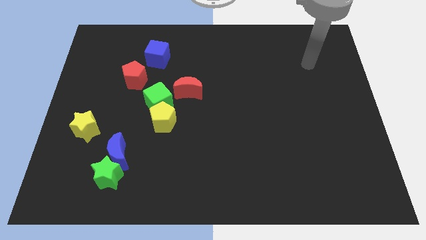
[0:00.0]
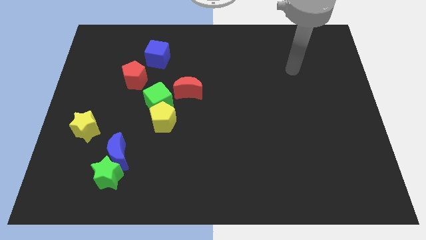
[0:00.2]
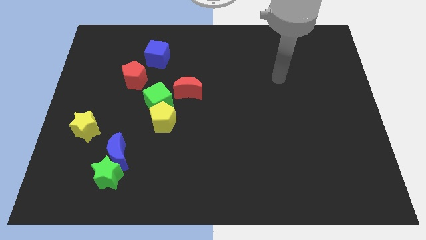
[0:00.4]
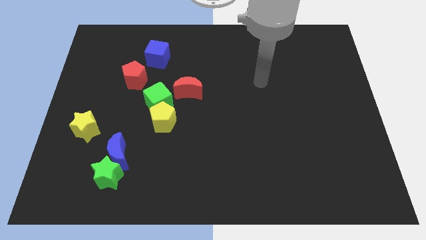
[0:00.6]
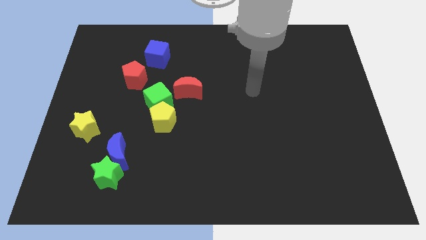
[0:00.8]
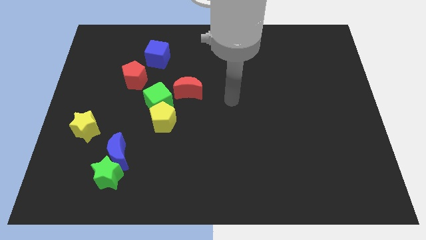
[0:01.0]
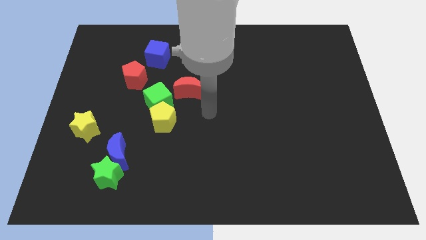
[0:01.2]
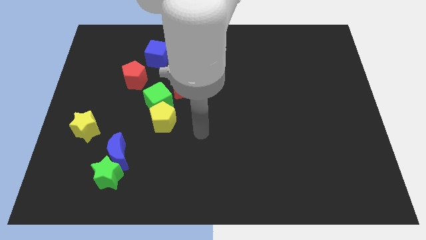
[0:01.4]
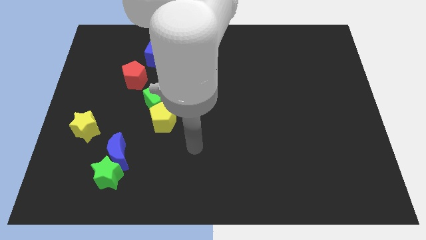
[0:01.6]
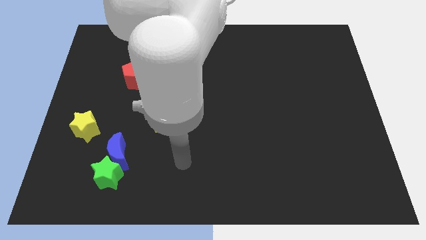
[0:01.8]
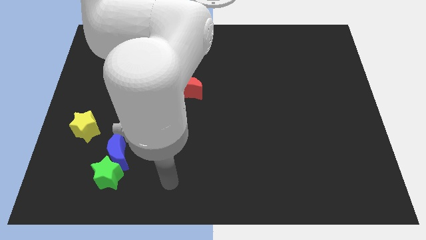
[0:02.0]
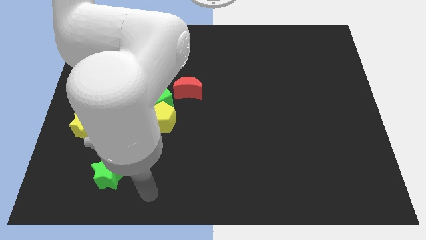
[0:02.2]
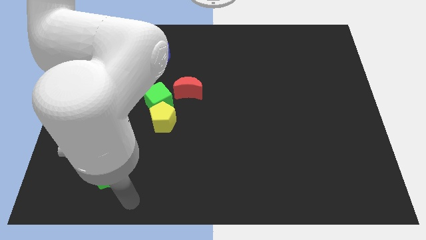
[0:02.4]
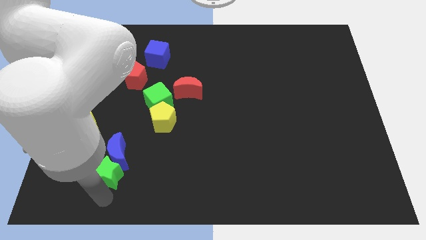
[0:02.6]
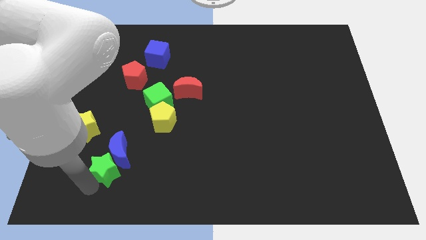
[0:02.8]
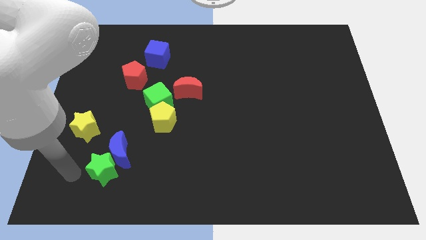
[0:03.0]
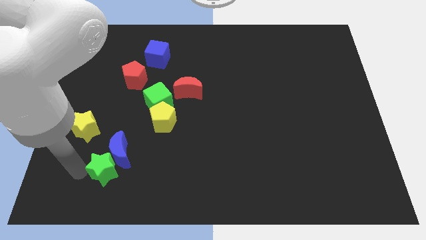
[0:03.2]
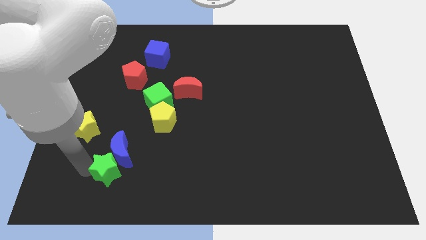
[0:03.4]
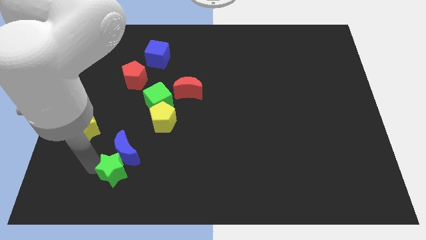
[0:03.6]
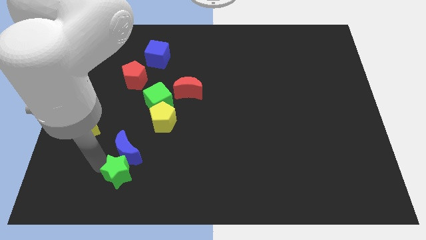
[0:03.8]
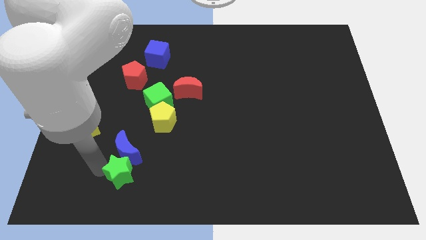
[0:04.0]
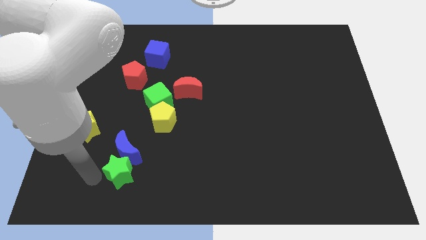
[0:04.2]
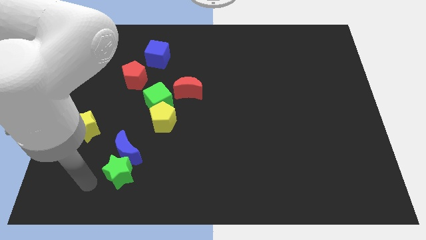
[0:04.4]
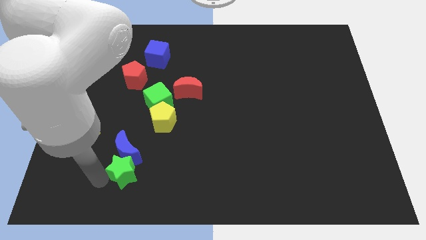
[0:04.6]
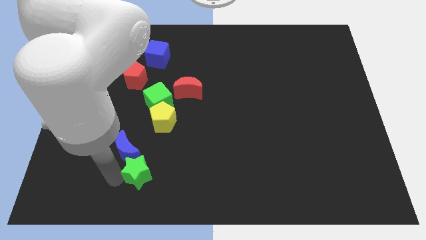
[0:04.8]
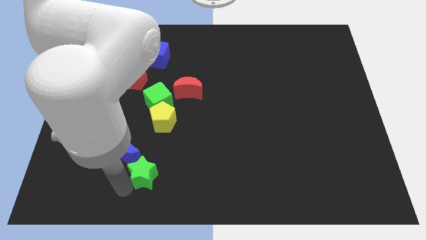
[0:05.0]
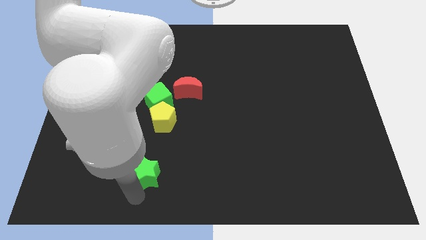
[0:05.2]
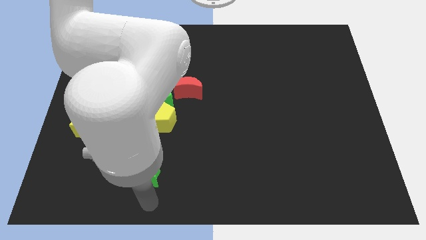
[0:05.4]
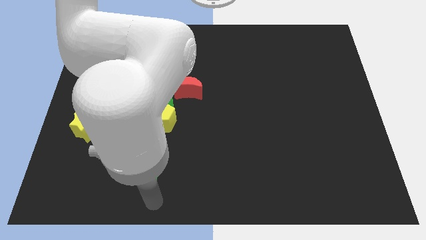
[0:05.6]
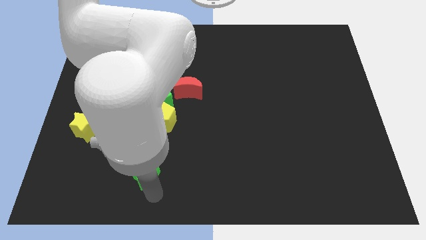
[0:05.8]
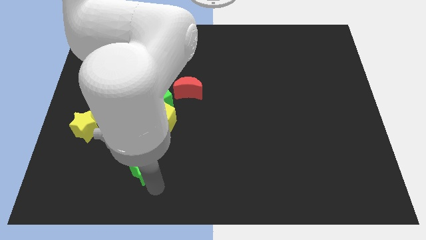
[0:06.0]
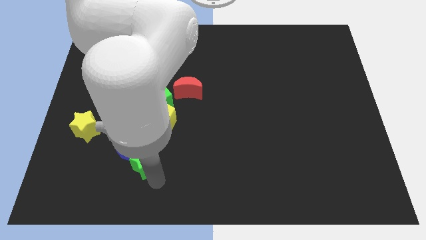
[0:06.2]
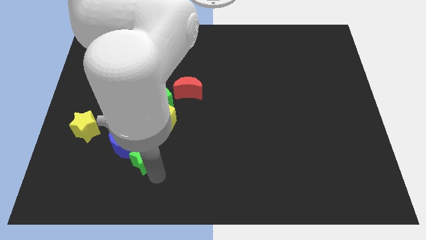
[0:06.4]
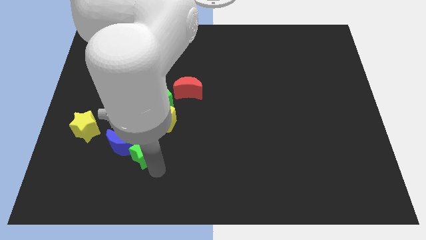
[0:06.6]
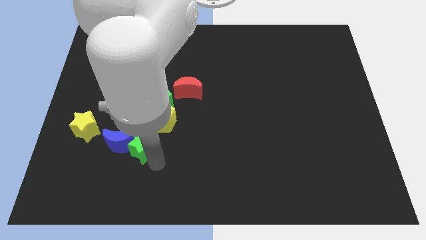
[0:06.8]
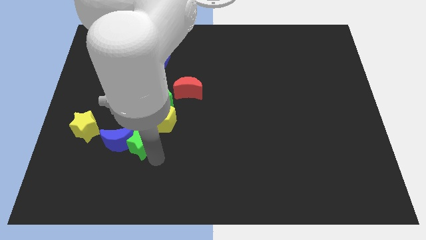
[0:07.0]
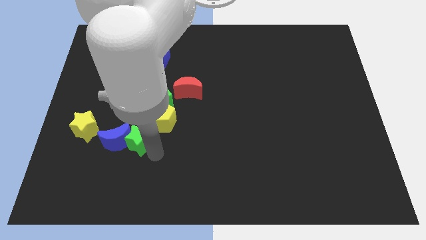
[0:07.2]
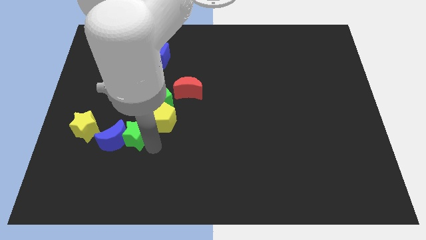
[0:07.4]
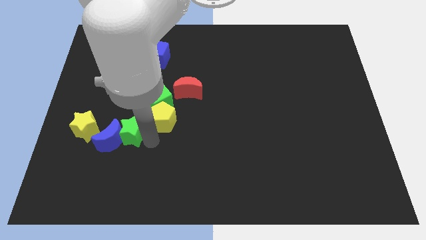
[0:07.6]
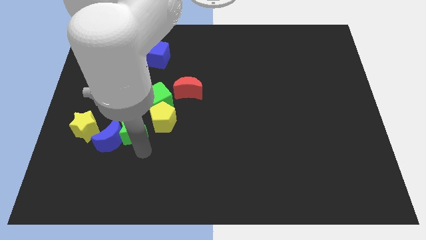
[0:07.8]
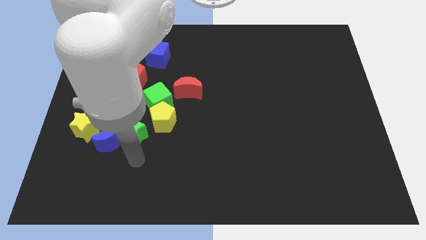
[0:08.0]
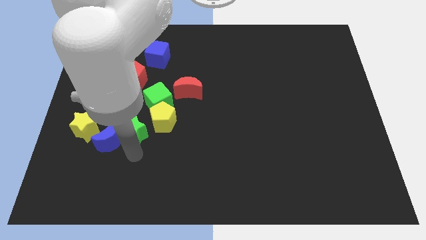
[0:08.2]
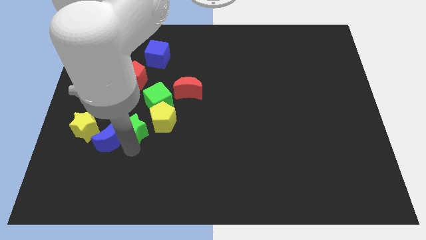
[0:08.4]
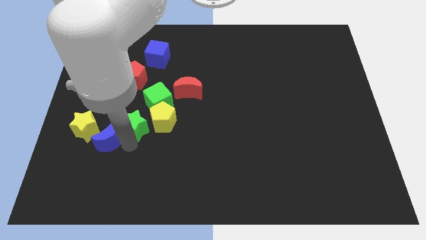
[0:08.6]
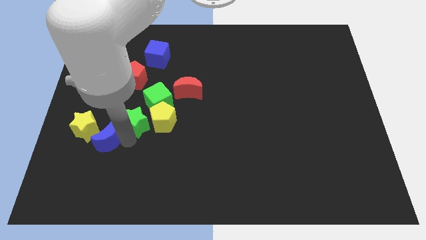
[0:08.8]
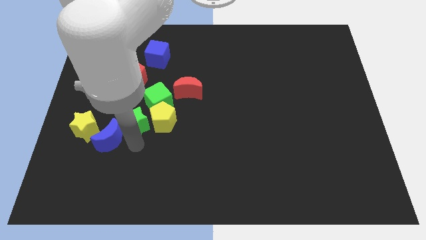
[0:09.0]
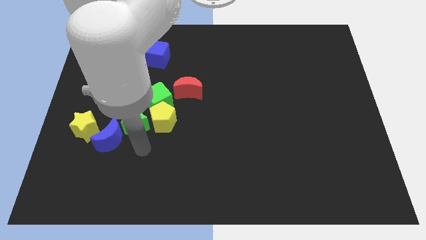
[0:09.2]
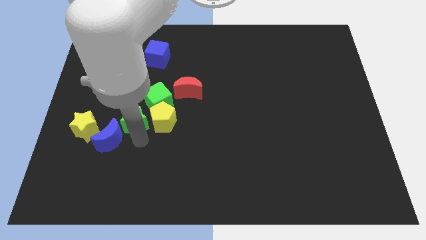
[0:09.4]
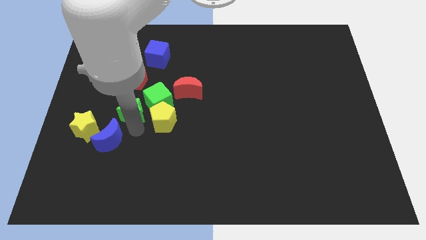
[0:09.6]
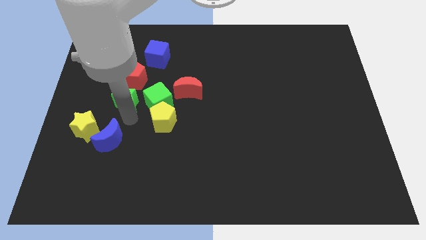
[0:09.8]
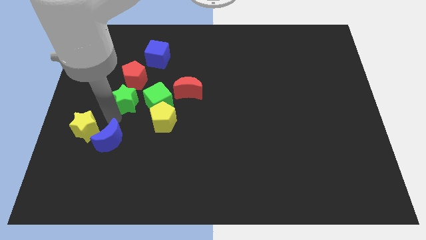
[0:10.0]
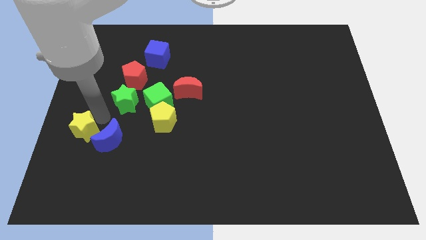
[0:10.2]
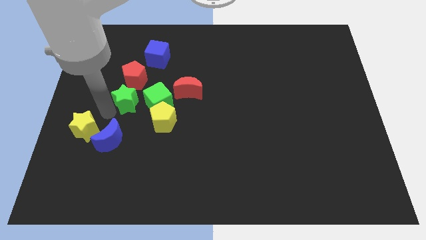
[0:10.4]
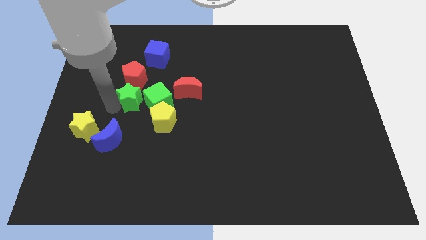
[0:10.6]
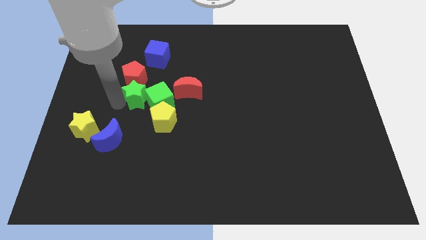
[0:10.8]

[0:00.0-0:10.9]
put the green star below the blue cube

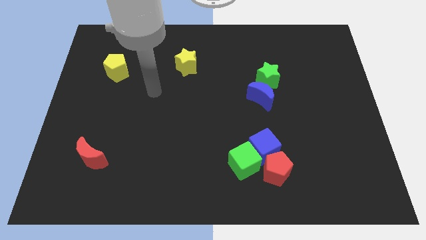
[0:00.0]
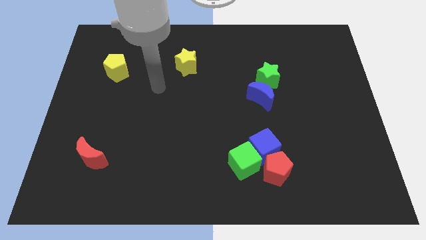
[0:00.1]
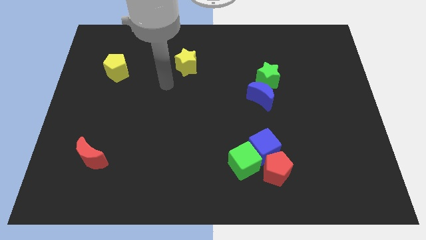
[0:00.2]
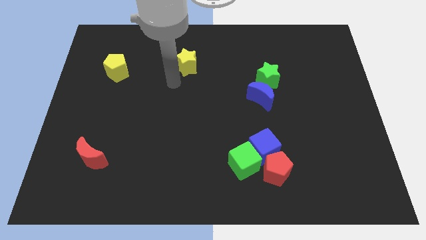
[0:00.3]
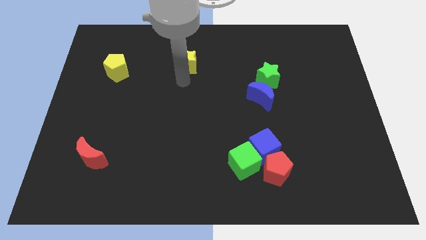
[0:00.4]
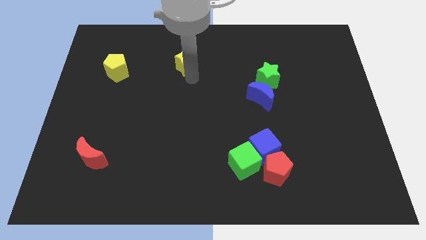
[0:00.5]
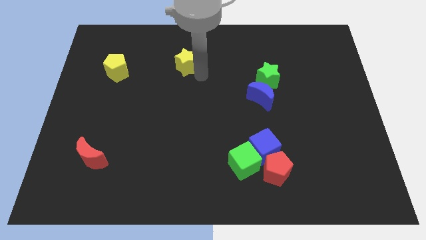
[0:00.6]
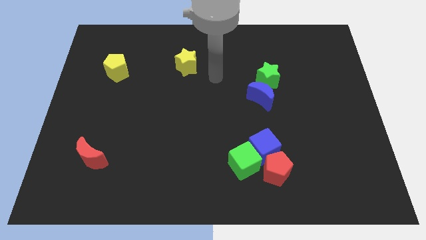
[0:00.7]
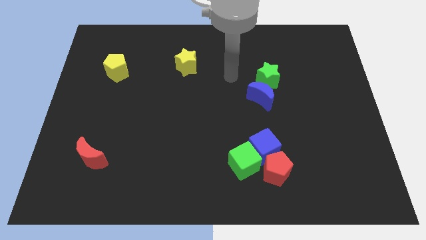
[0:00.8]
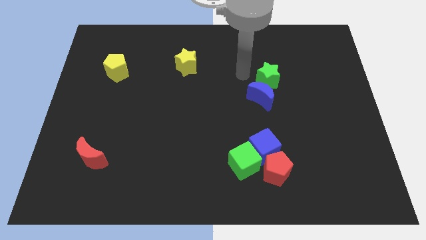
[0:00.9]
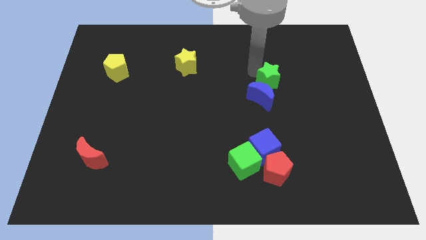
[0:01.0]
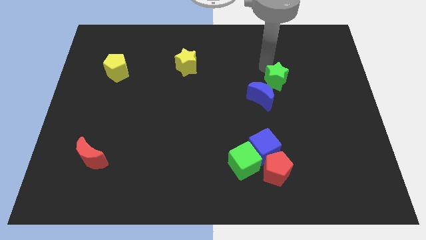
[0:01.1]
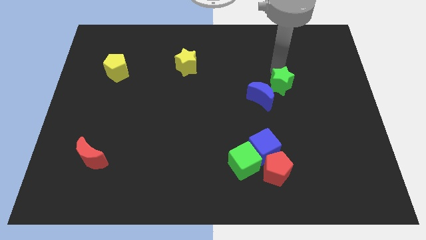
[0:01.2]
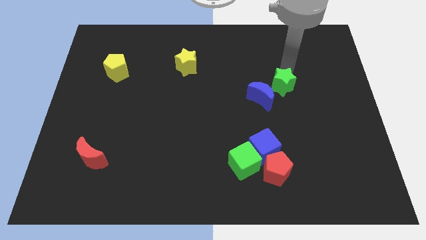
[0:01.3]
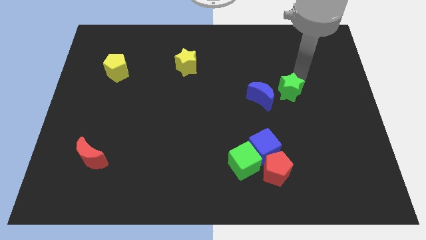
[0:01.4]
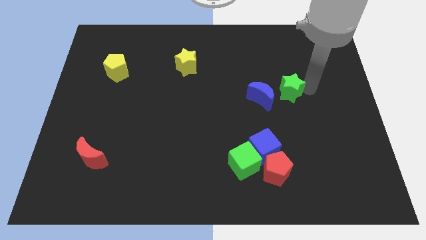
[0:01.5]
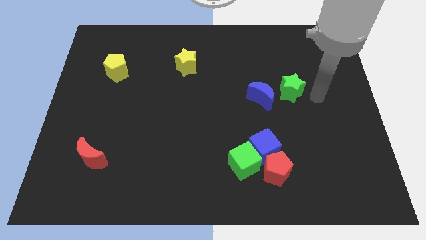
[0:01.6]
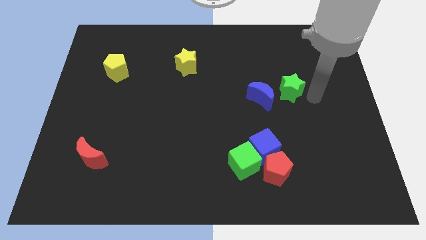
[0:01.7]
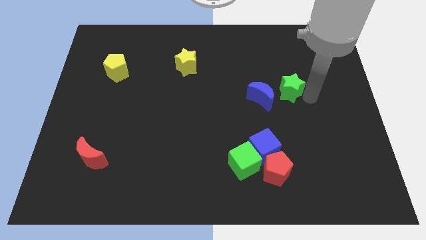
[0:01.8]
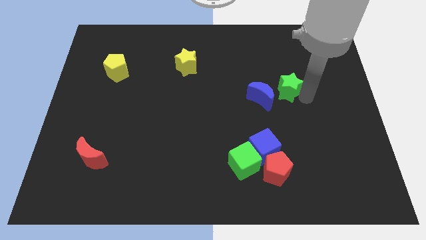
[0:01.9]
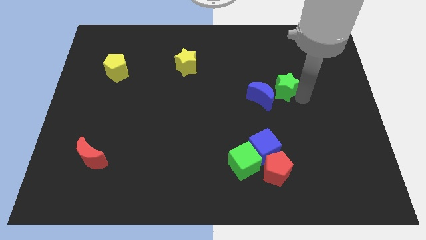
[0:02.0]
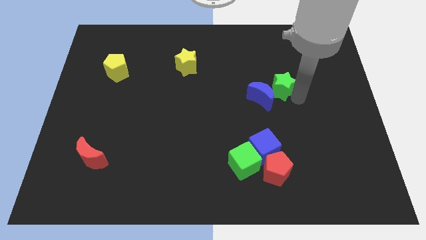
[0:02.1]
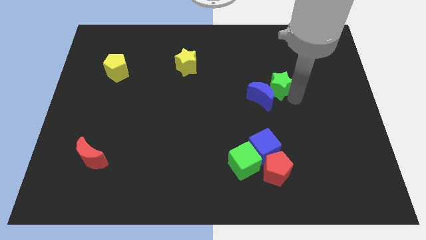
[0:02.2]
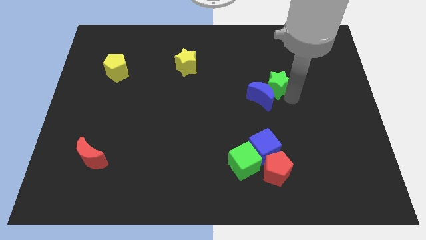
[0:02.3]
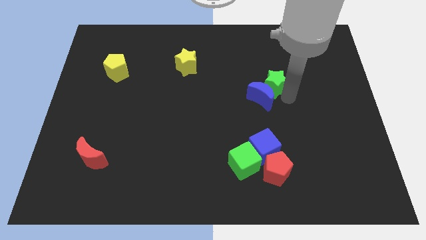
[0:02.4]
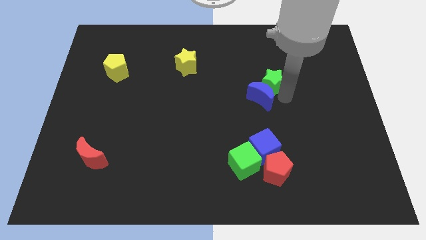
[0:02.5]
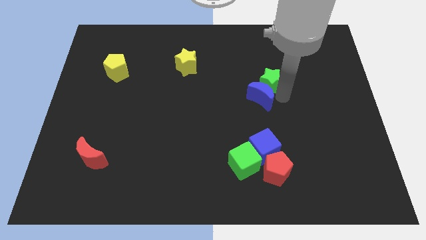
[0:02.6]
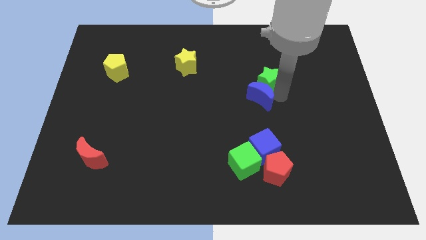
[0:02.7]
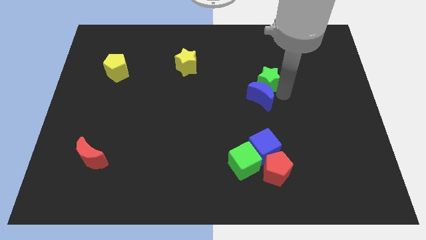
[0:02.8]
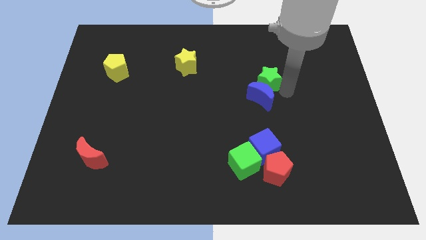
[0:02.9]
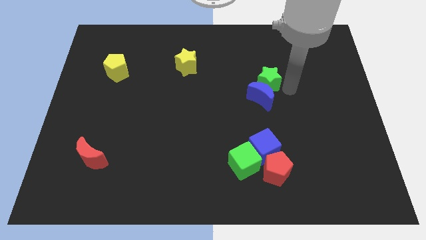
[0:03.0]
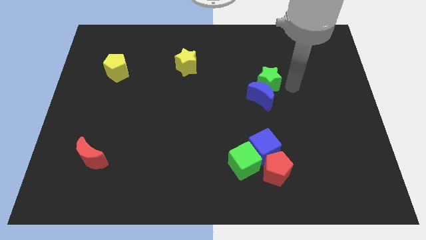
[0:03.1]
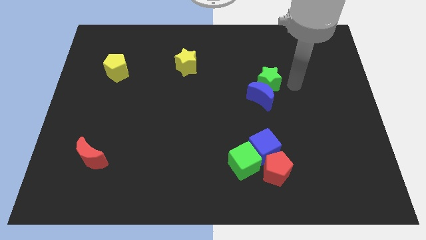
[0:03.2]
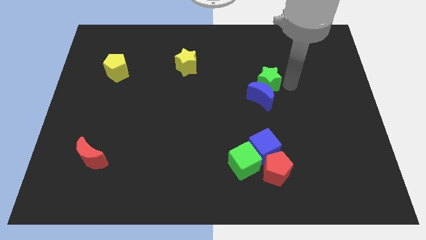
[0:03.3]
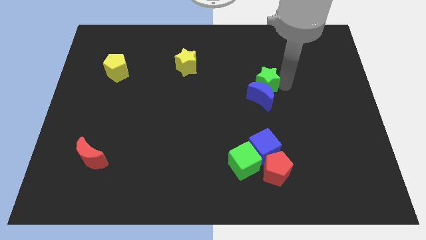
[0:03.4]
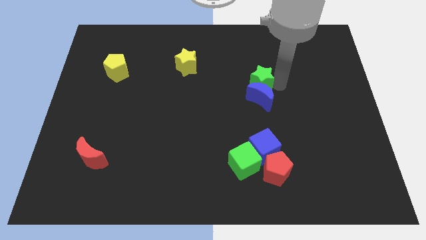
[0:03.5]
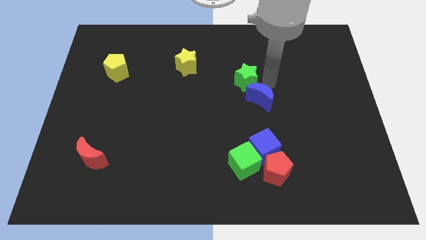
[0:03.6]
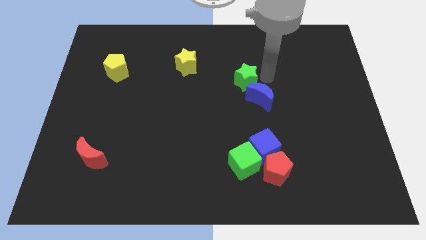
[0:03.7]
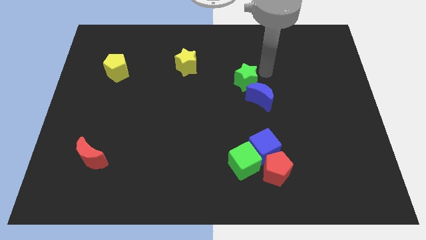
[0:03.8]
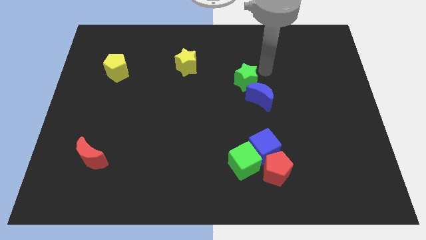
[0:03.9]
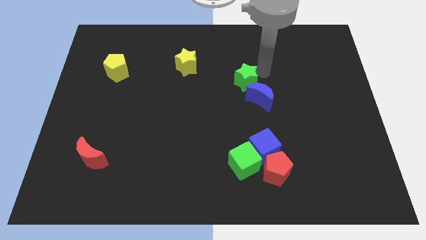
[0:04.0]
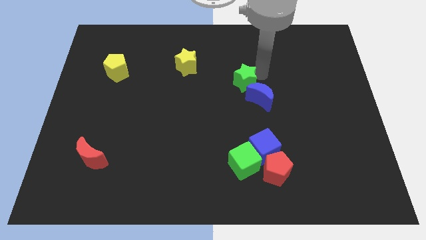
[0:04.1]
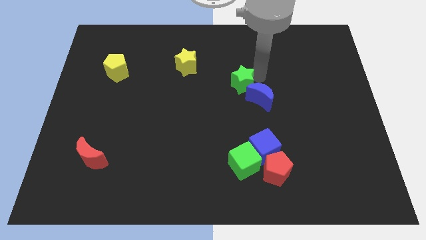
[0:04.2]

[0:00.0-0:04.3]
put the green star just left of the blue moon
